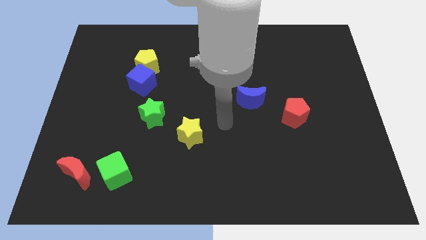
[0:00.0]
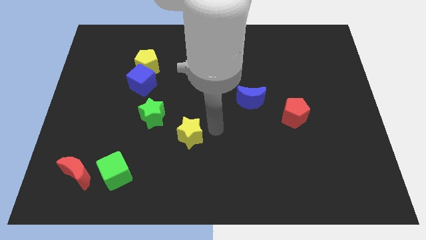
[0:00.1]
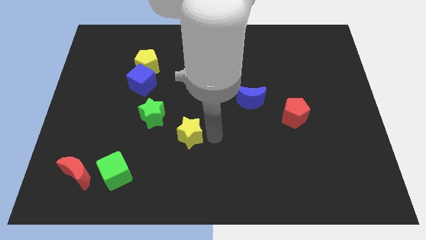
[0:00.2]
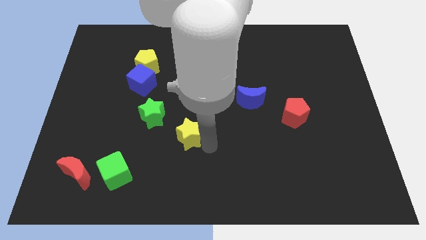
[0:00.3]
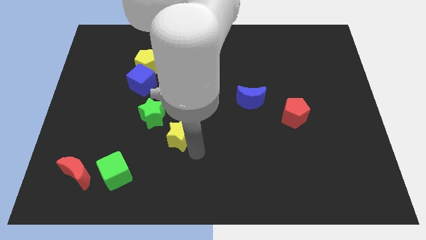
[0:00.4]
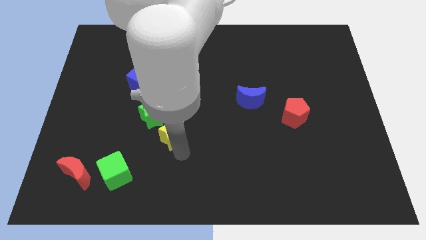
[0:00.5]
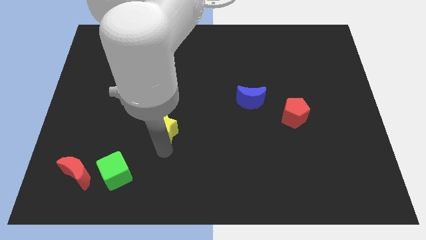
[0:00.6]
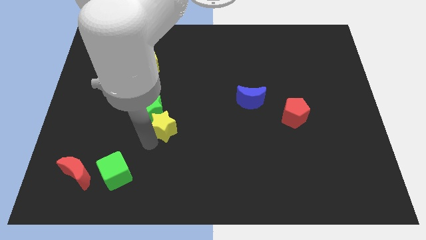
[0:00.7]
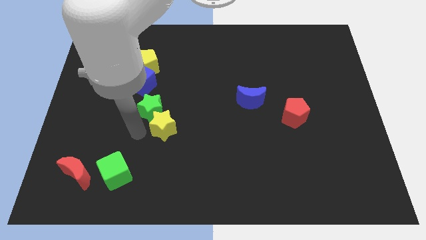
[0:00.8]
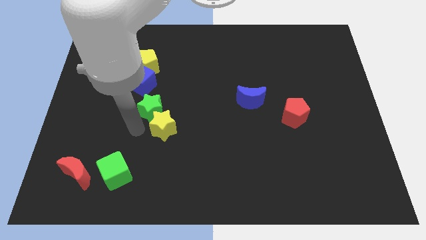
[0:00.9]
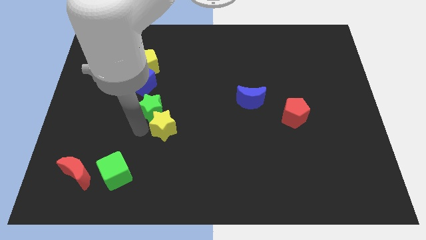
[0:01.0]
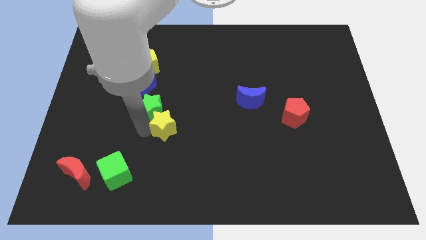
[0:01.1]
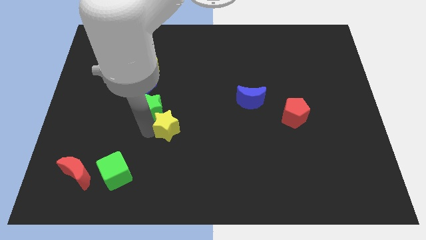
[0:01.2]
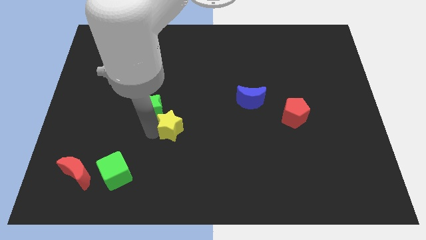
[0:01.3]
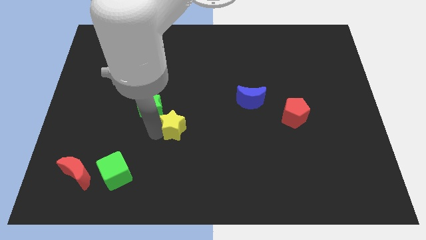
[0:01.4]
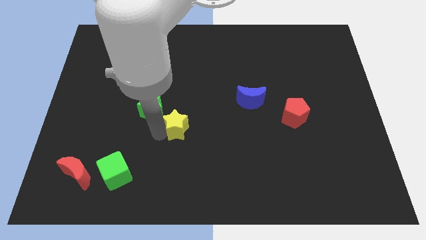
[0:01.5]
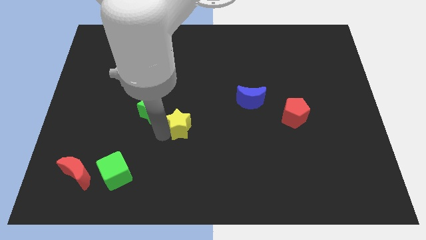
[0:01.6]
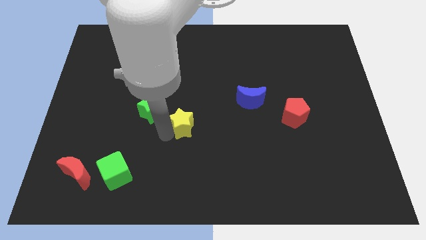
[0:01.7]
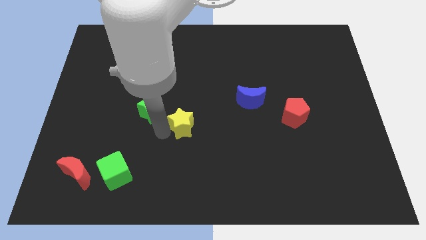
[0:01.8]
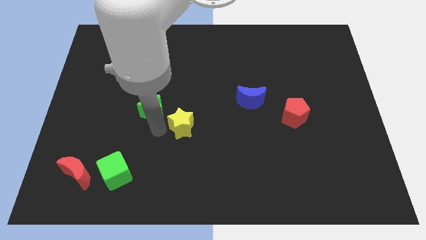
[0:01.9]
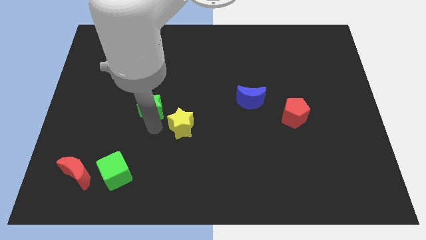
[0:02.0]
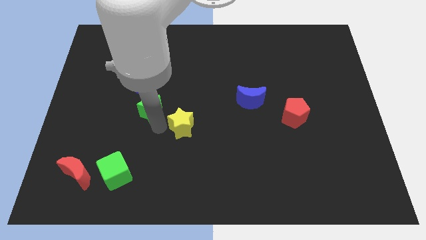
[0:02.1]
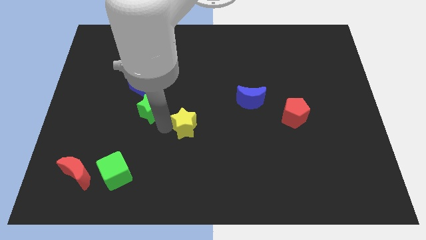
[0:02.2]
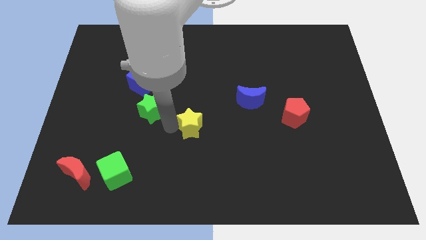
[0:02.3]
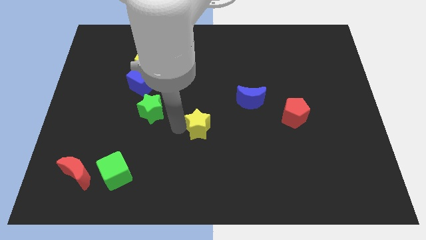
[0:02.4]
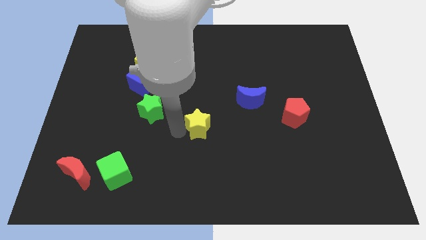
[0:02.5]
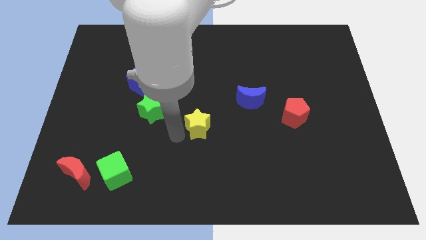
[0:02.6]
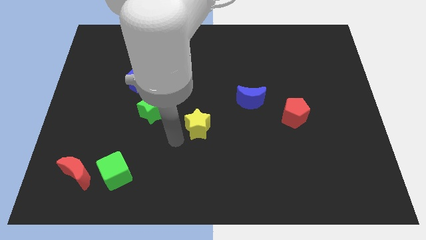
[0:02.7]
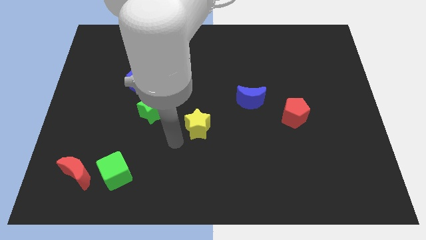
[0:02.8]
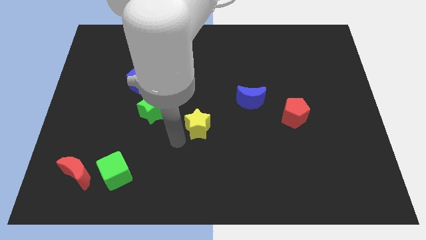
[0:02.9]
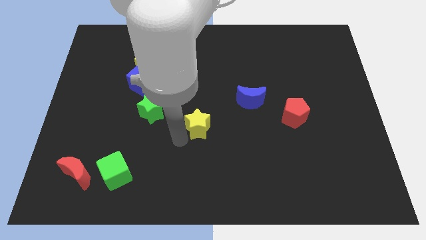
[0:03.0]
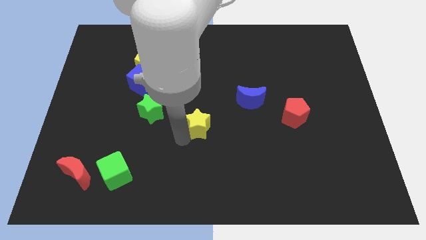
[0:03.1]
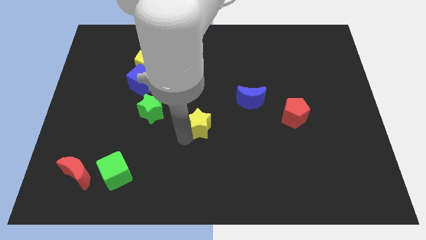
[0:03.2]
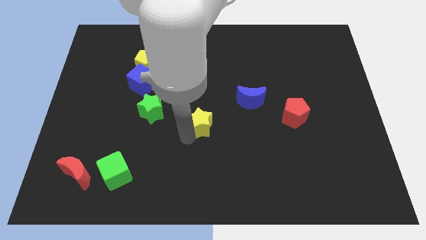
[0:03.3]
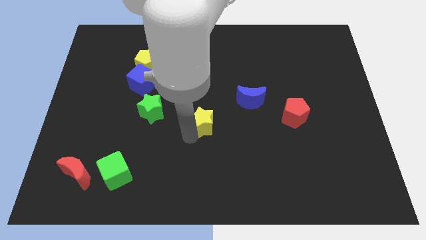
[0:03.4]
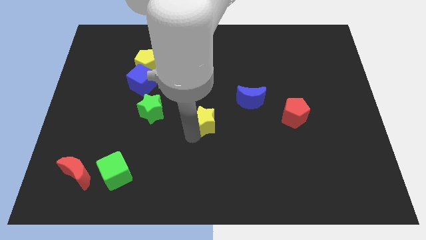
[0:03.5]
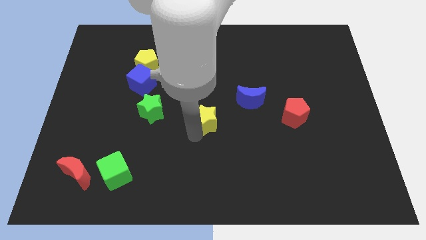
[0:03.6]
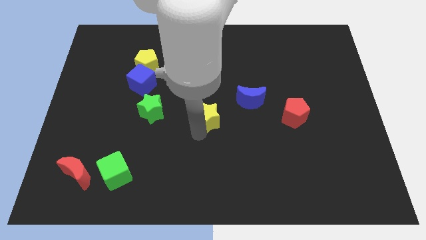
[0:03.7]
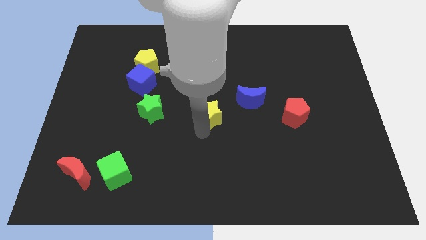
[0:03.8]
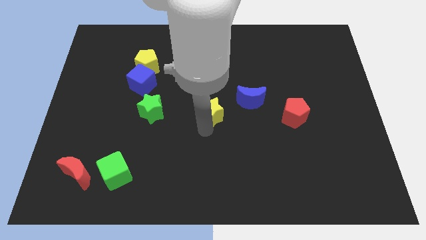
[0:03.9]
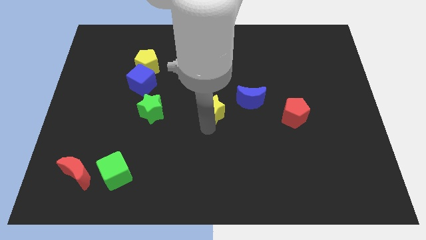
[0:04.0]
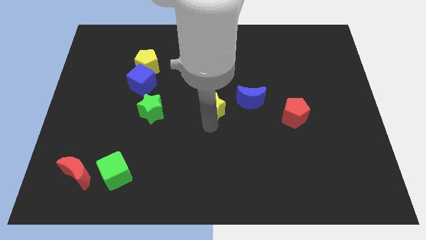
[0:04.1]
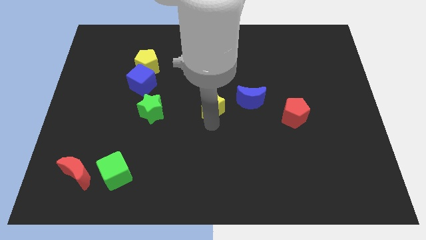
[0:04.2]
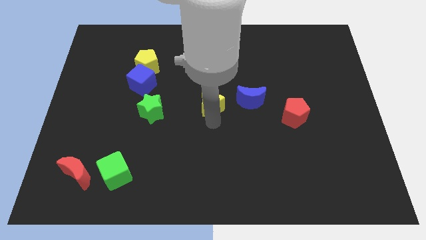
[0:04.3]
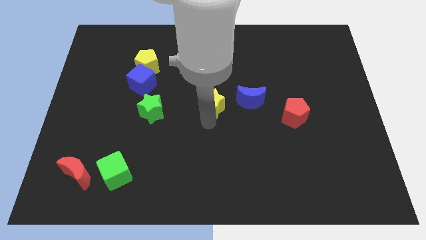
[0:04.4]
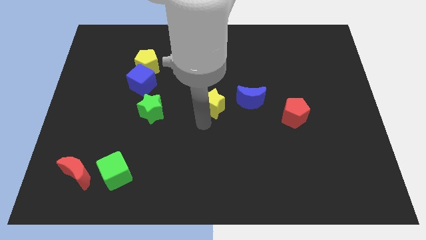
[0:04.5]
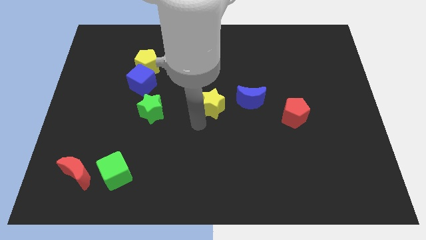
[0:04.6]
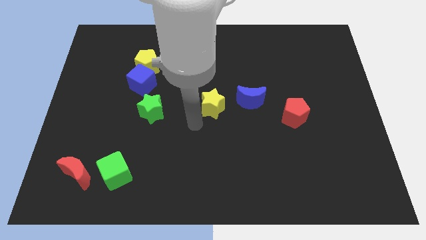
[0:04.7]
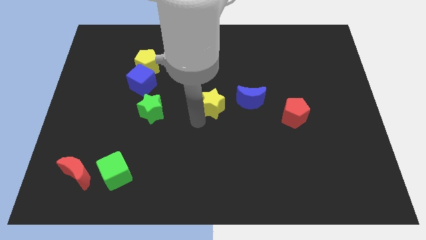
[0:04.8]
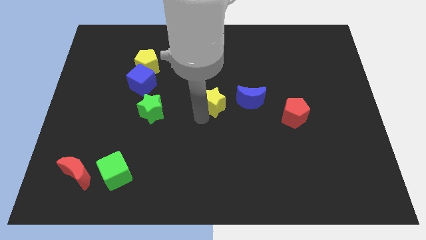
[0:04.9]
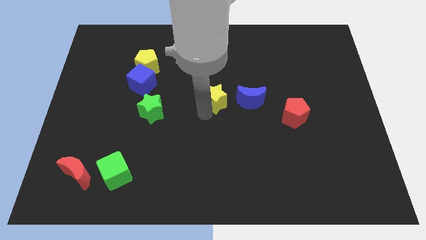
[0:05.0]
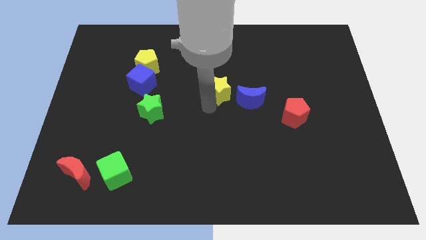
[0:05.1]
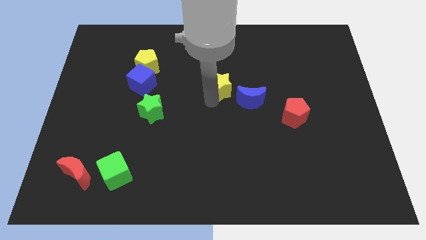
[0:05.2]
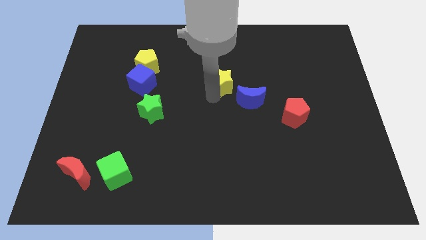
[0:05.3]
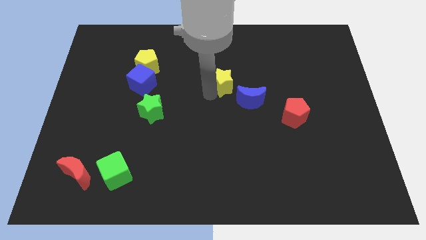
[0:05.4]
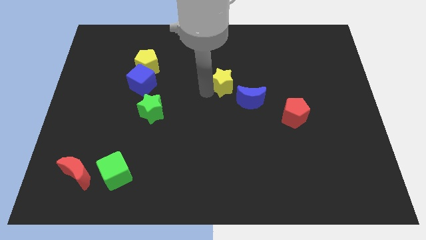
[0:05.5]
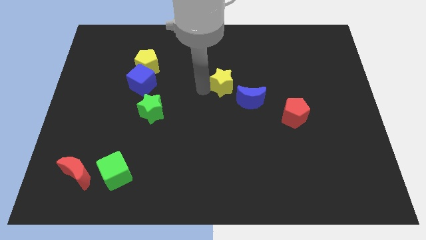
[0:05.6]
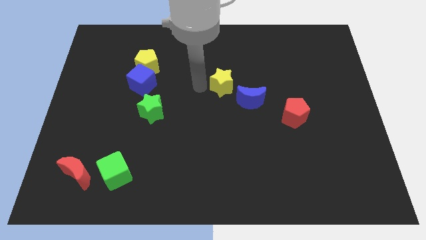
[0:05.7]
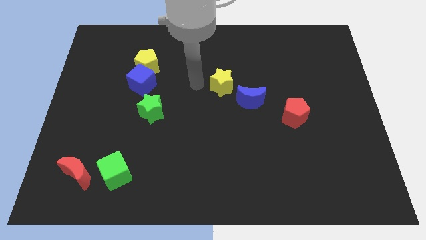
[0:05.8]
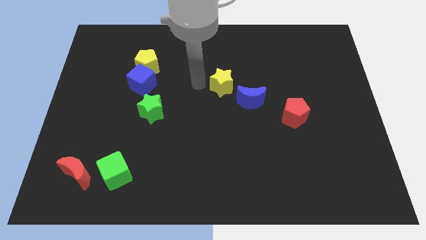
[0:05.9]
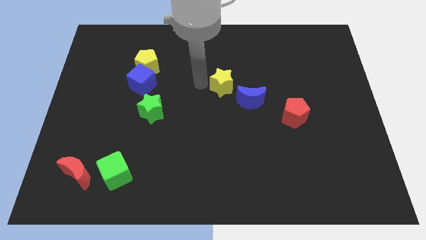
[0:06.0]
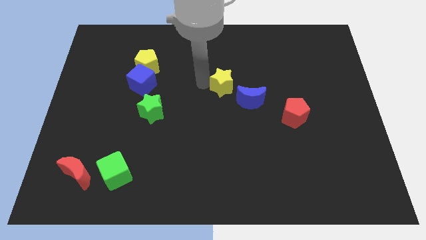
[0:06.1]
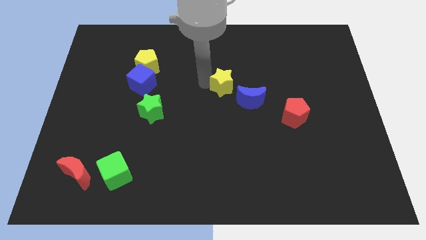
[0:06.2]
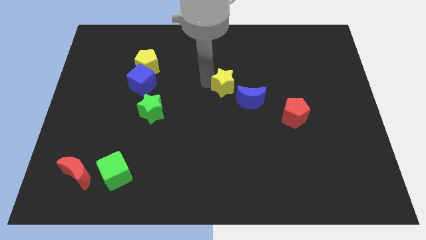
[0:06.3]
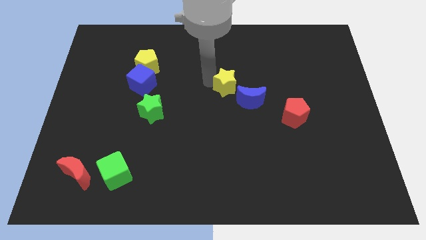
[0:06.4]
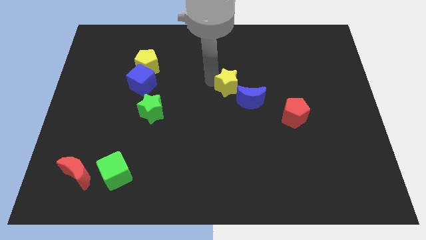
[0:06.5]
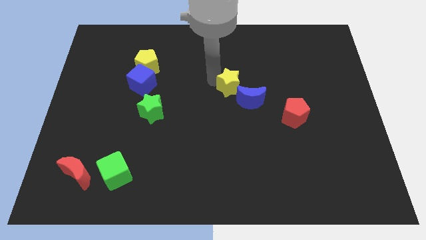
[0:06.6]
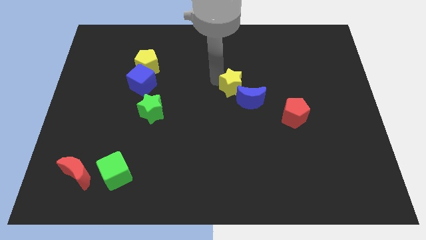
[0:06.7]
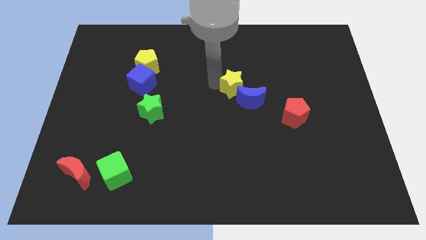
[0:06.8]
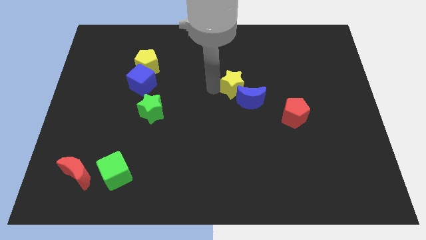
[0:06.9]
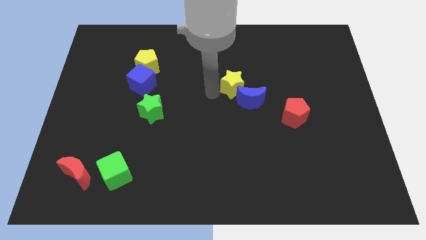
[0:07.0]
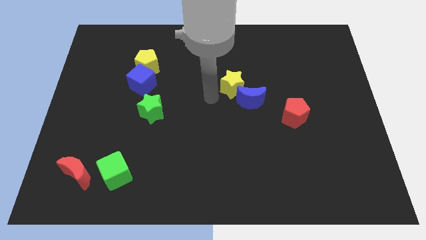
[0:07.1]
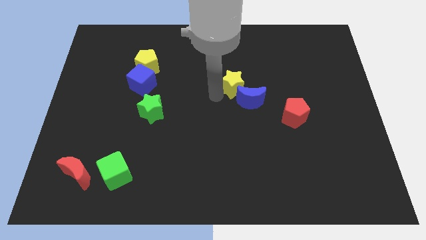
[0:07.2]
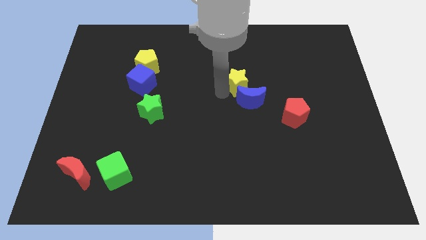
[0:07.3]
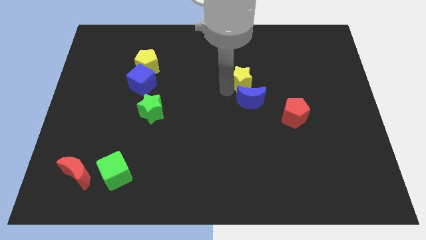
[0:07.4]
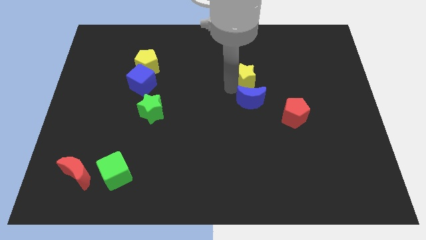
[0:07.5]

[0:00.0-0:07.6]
slide the yellow star up and to the right diagonally

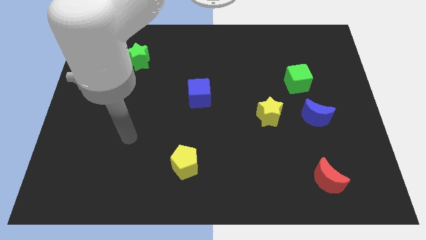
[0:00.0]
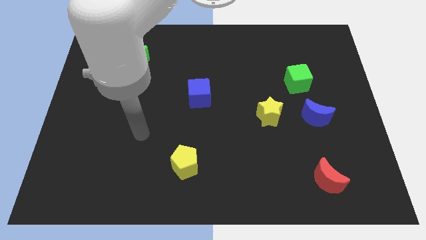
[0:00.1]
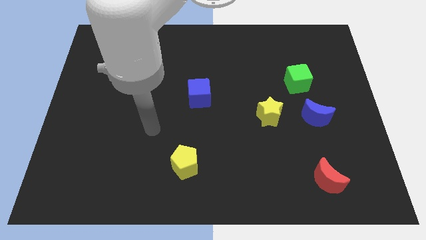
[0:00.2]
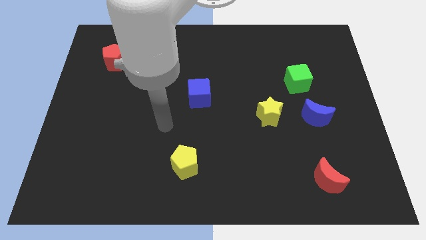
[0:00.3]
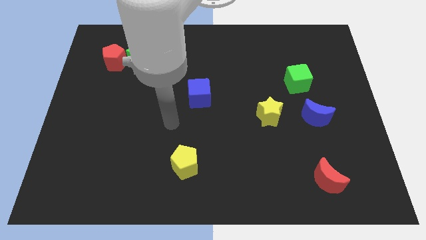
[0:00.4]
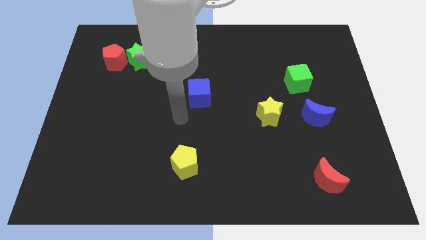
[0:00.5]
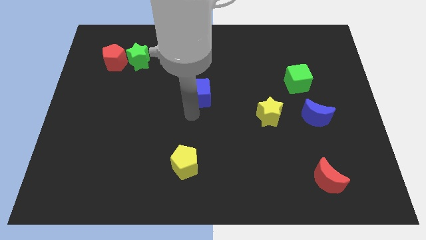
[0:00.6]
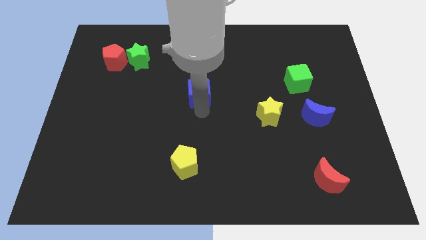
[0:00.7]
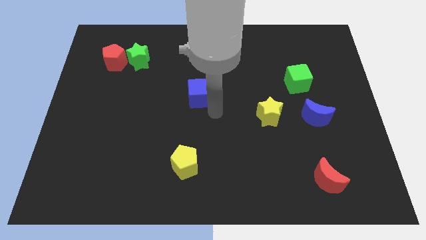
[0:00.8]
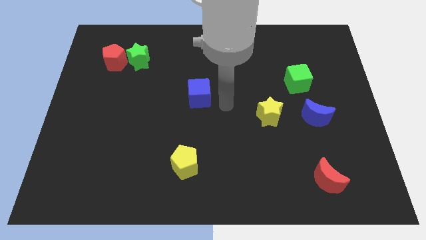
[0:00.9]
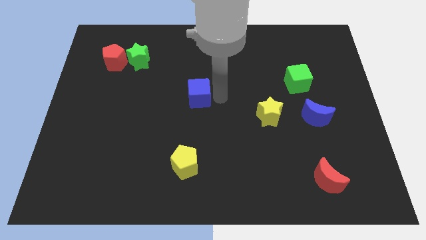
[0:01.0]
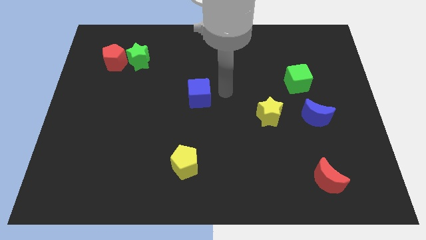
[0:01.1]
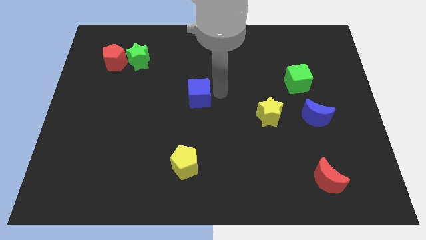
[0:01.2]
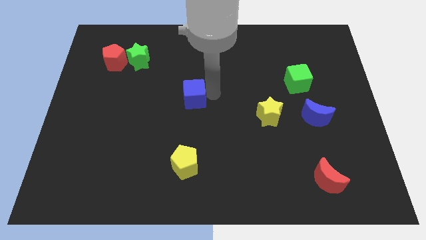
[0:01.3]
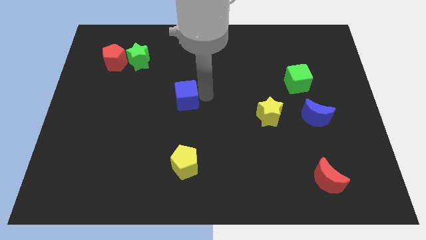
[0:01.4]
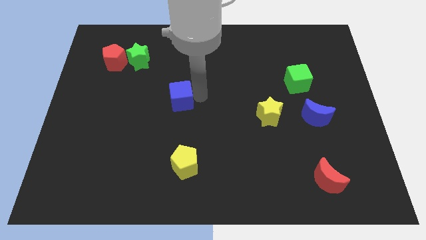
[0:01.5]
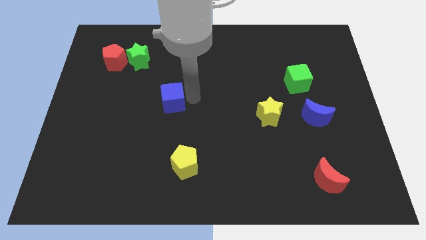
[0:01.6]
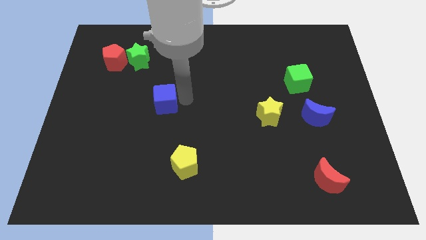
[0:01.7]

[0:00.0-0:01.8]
slightly slide the blue cube to the left
